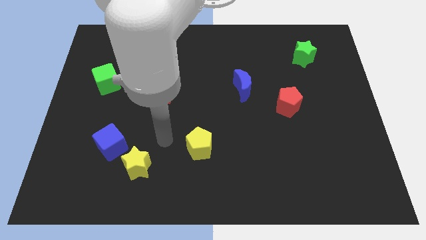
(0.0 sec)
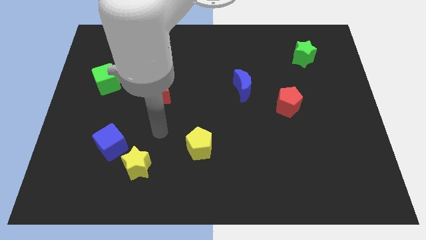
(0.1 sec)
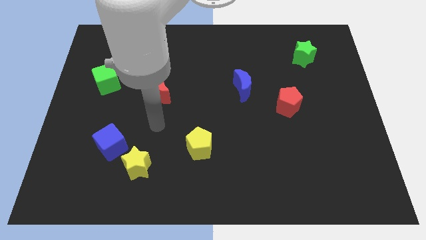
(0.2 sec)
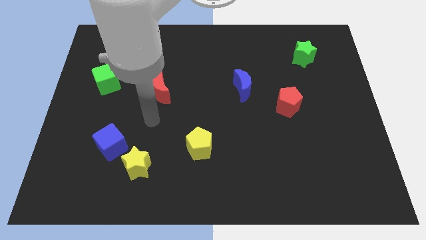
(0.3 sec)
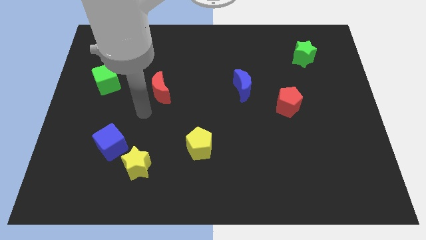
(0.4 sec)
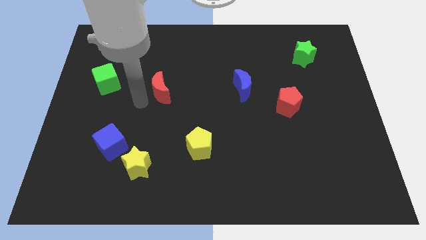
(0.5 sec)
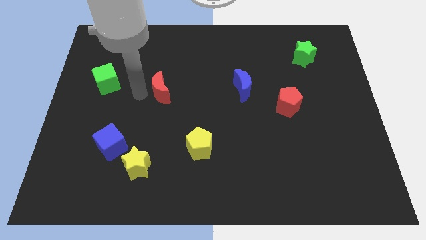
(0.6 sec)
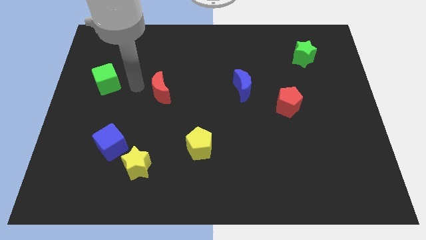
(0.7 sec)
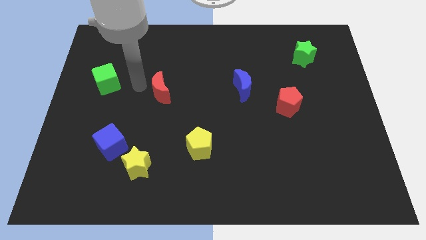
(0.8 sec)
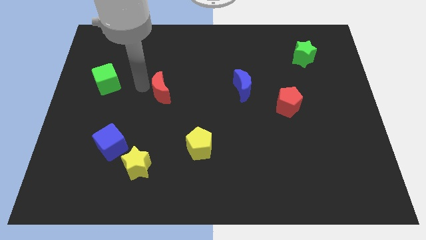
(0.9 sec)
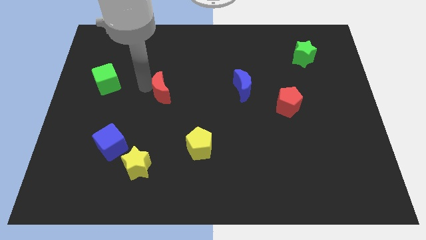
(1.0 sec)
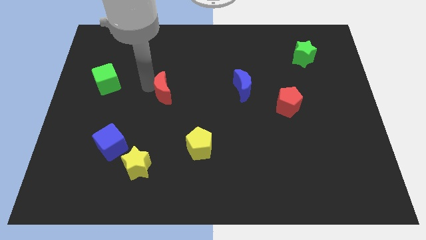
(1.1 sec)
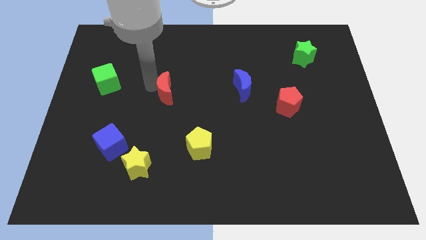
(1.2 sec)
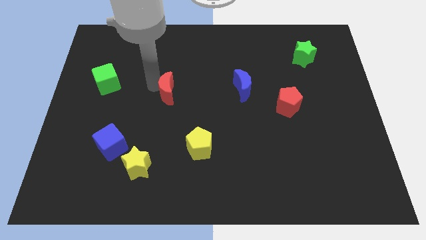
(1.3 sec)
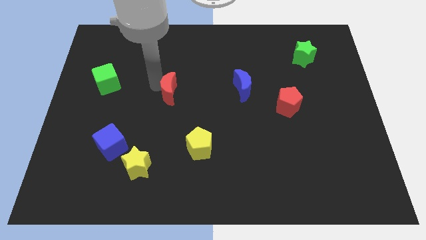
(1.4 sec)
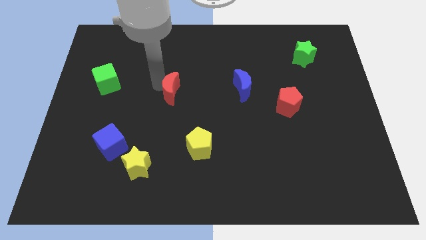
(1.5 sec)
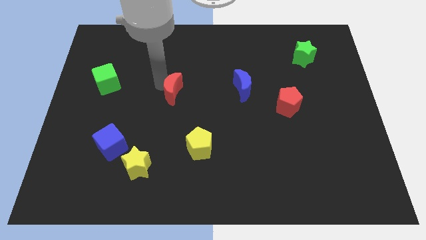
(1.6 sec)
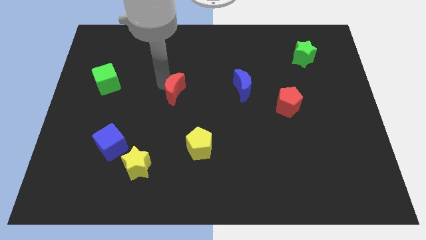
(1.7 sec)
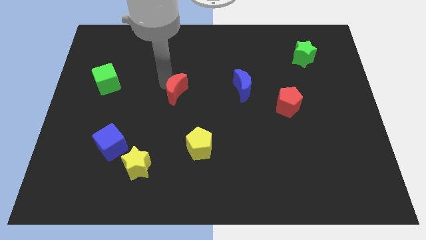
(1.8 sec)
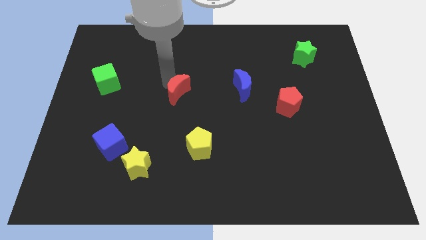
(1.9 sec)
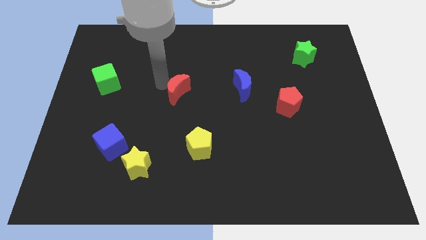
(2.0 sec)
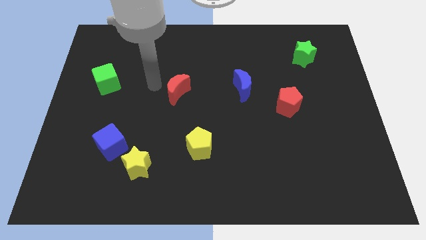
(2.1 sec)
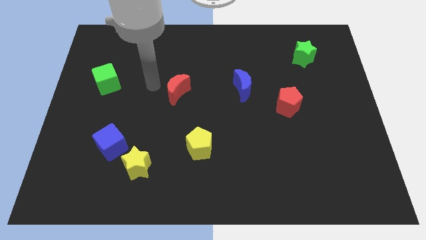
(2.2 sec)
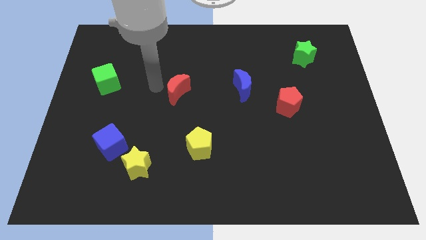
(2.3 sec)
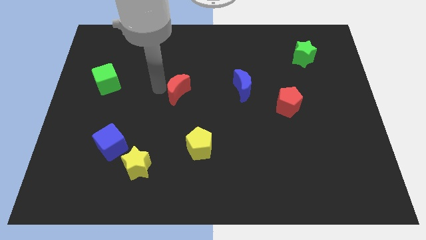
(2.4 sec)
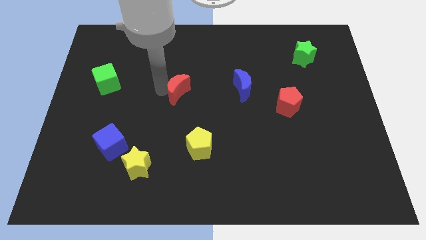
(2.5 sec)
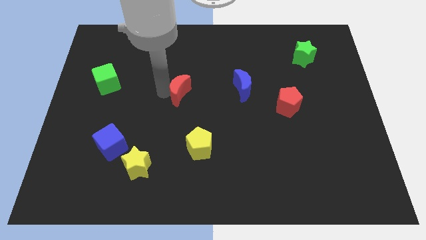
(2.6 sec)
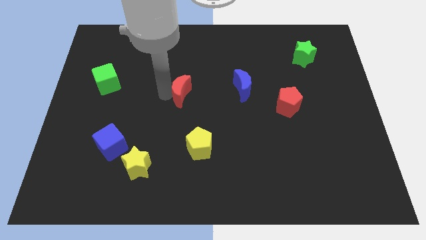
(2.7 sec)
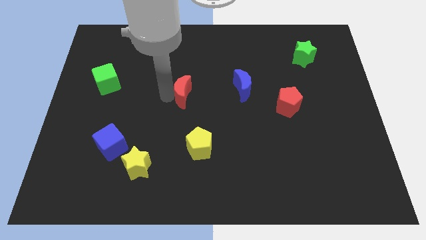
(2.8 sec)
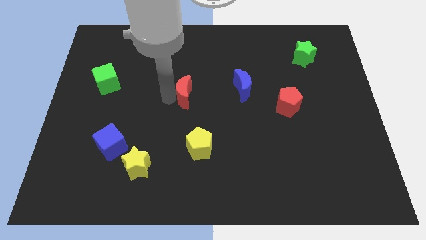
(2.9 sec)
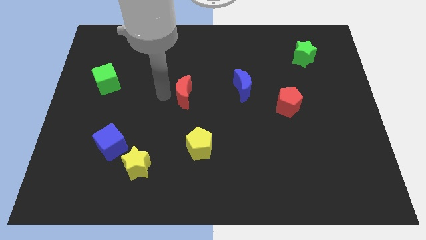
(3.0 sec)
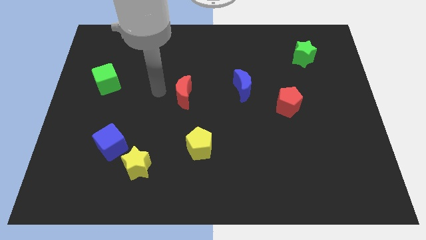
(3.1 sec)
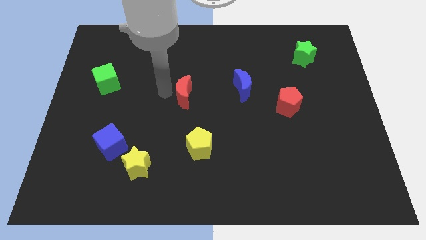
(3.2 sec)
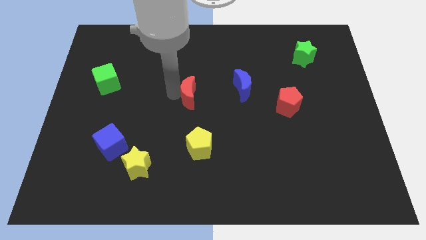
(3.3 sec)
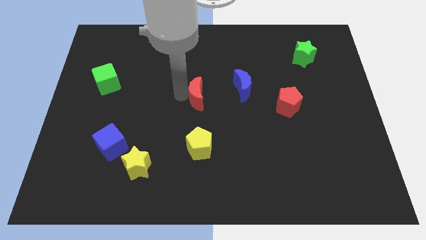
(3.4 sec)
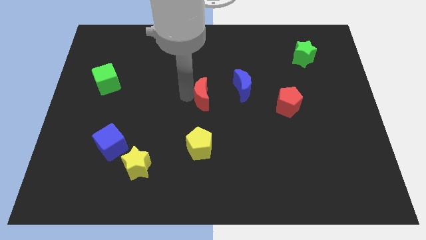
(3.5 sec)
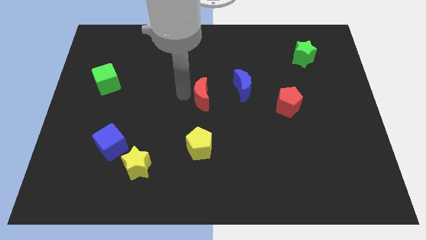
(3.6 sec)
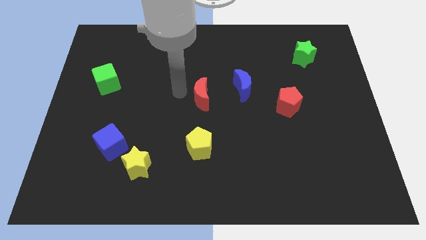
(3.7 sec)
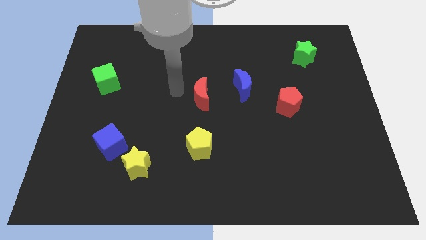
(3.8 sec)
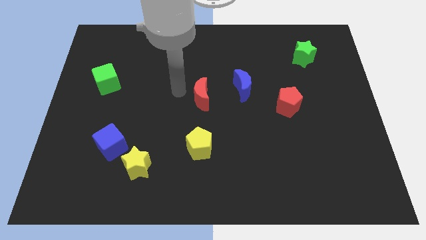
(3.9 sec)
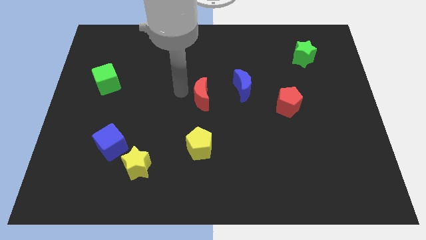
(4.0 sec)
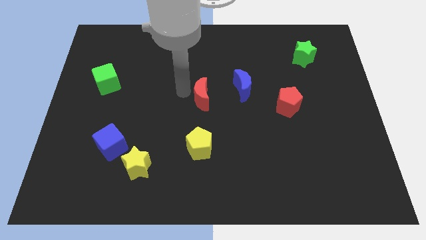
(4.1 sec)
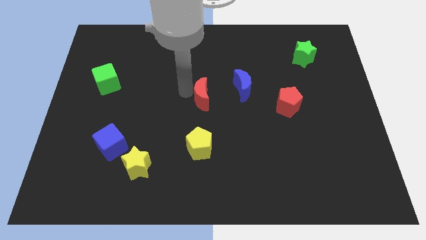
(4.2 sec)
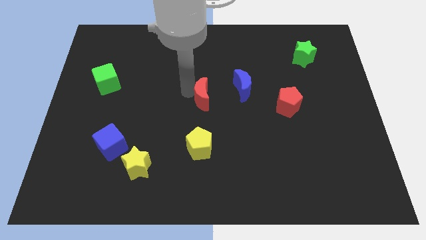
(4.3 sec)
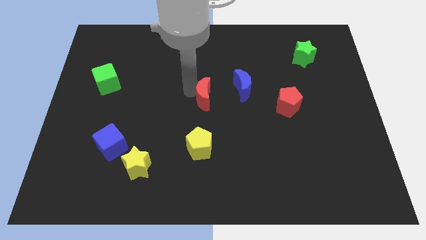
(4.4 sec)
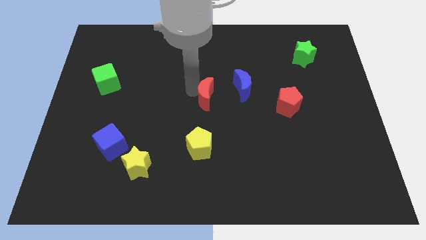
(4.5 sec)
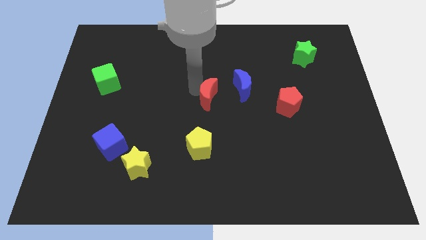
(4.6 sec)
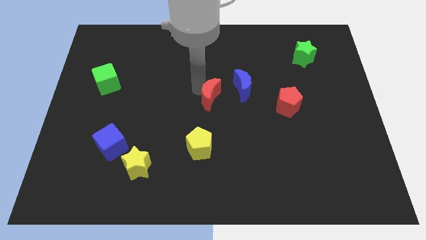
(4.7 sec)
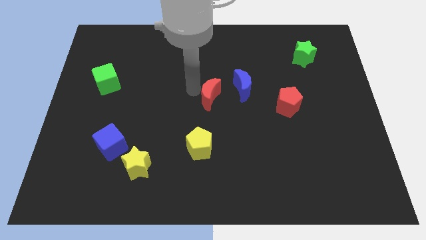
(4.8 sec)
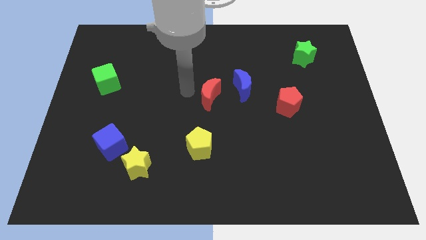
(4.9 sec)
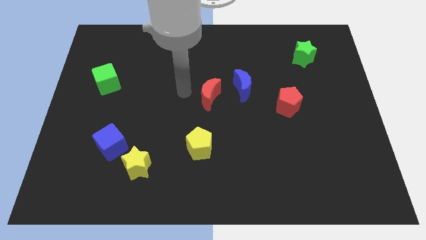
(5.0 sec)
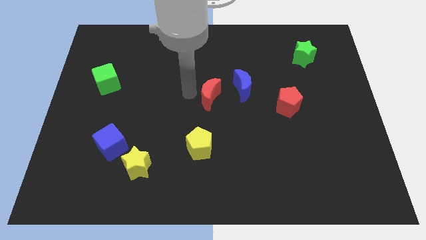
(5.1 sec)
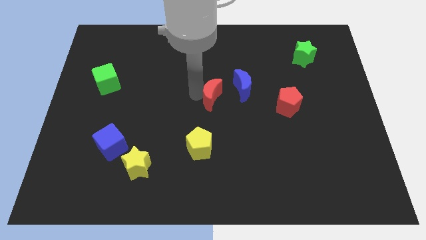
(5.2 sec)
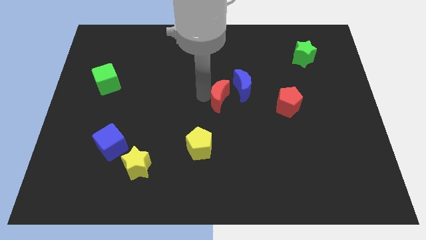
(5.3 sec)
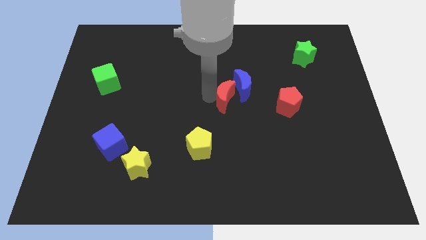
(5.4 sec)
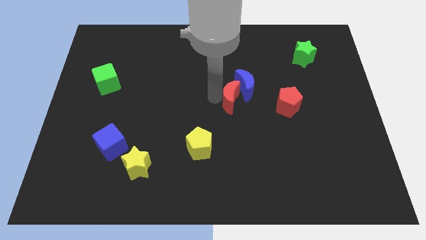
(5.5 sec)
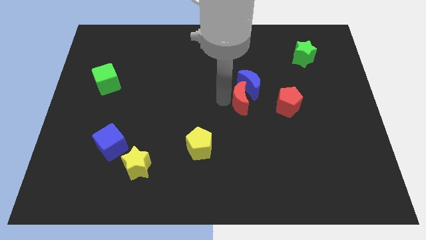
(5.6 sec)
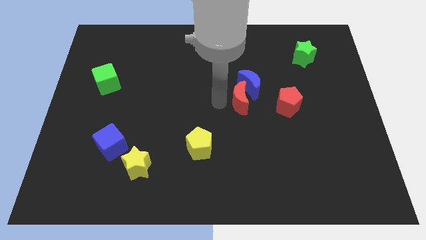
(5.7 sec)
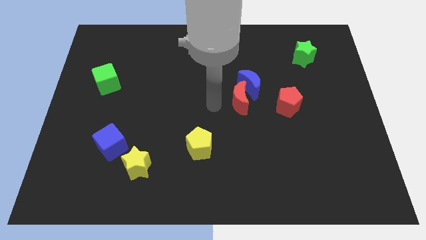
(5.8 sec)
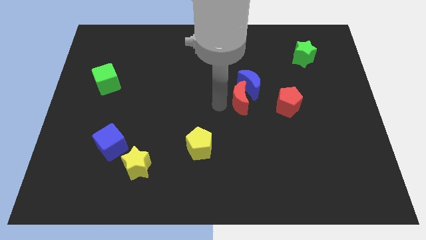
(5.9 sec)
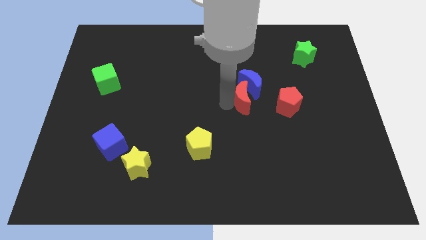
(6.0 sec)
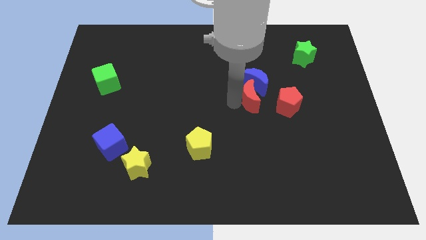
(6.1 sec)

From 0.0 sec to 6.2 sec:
push the red moon right

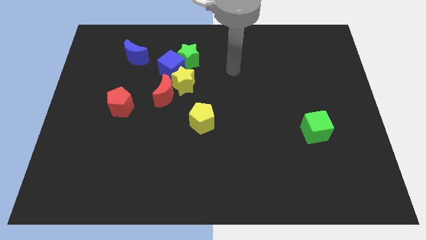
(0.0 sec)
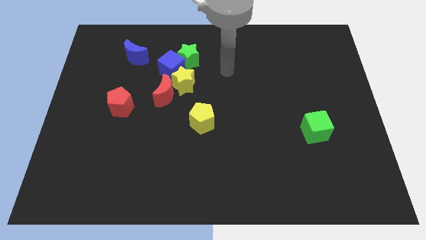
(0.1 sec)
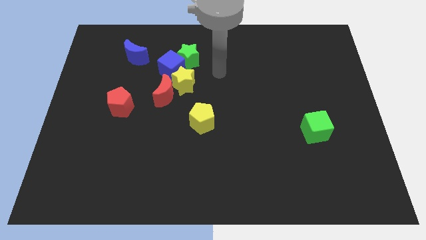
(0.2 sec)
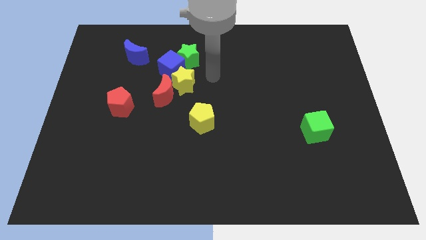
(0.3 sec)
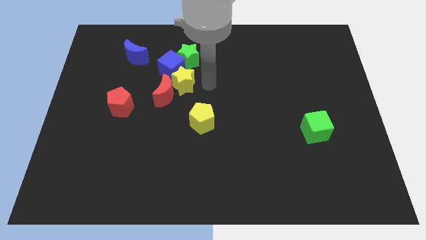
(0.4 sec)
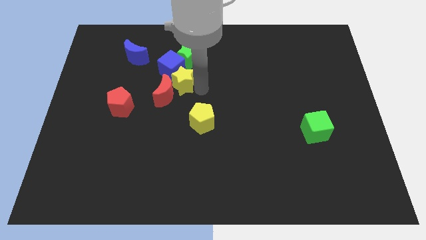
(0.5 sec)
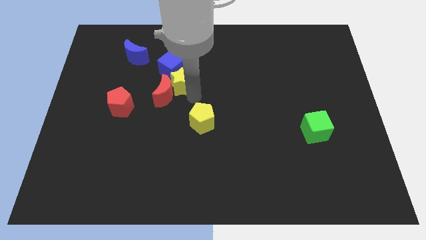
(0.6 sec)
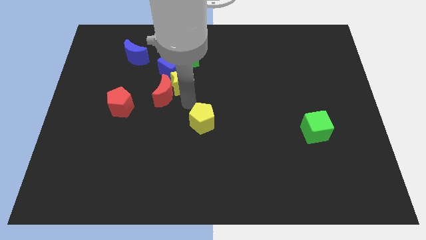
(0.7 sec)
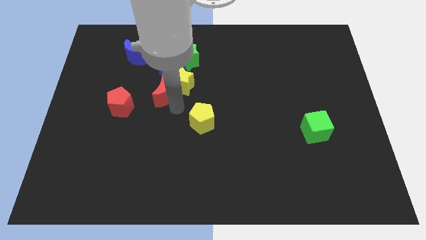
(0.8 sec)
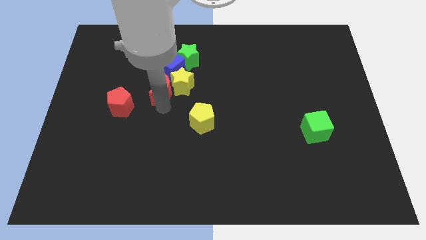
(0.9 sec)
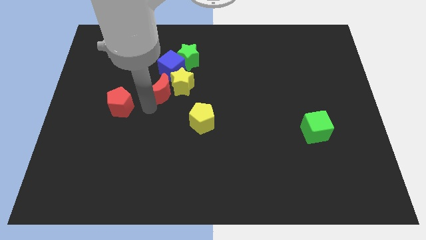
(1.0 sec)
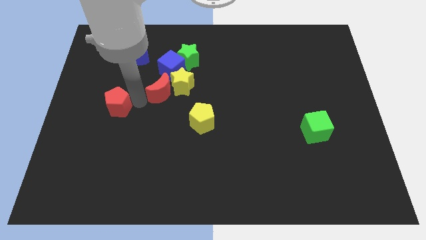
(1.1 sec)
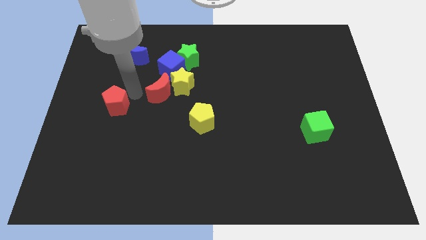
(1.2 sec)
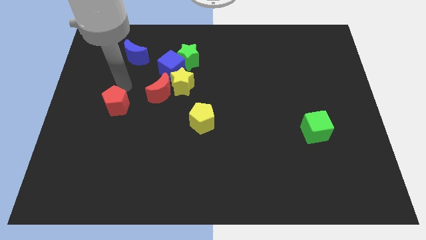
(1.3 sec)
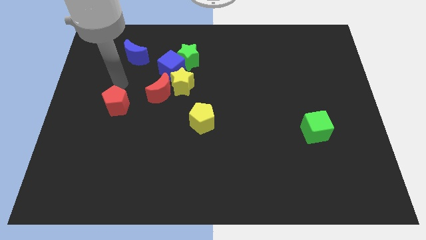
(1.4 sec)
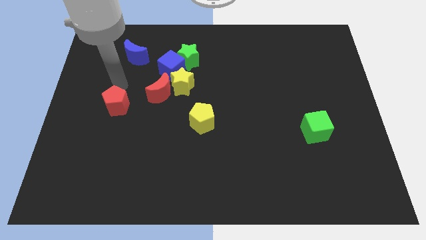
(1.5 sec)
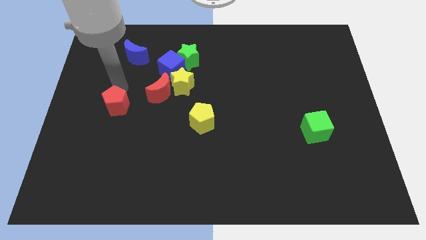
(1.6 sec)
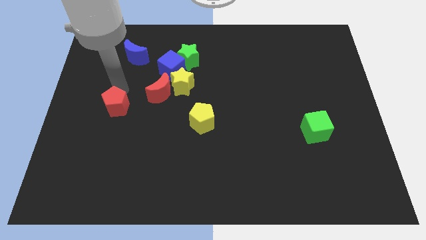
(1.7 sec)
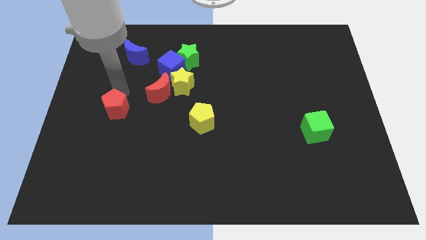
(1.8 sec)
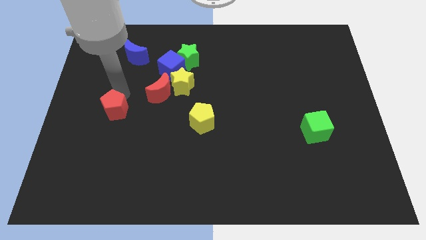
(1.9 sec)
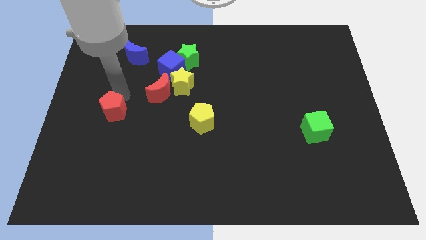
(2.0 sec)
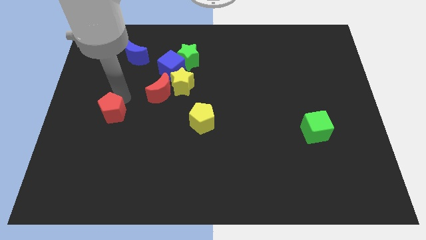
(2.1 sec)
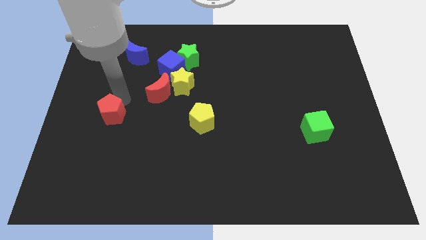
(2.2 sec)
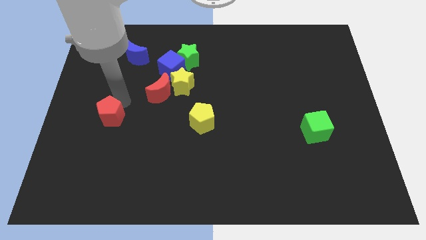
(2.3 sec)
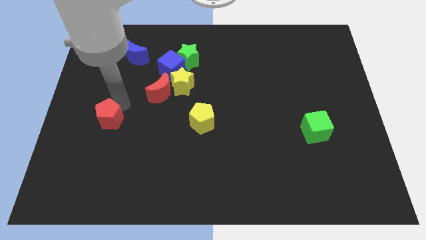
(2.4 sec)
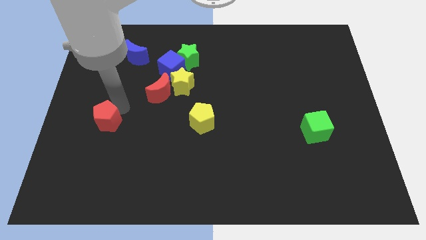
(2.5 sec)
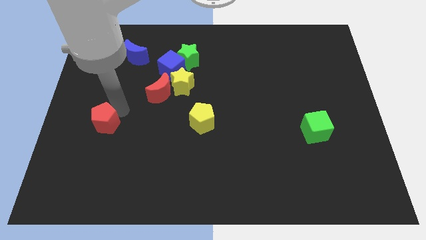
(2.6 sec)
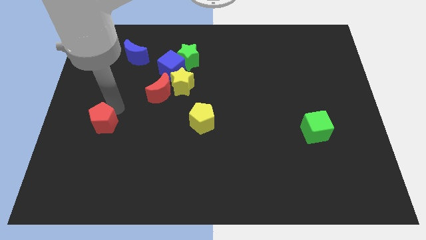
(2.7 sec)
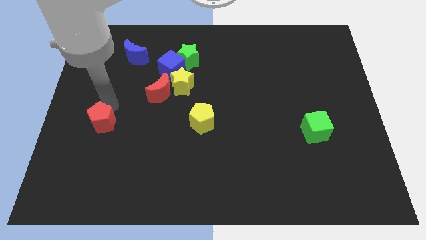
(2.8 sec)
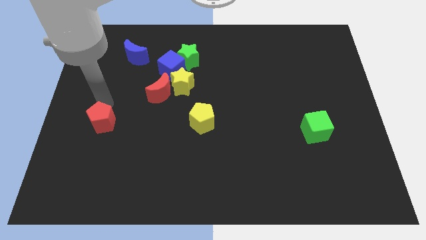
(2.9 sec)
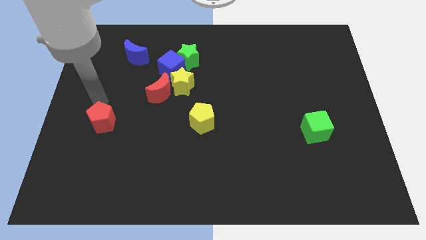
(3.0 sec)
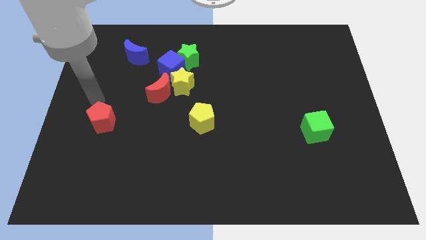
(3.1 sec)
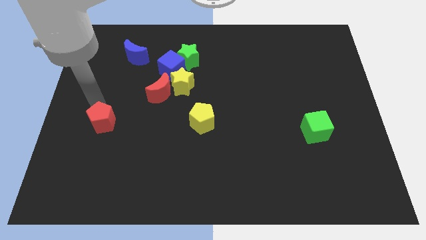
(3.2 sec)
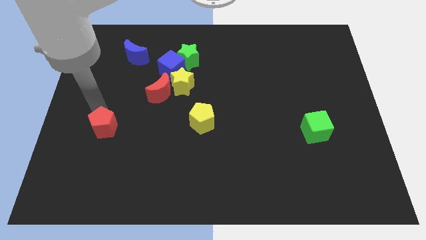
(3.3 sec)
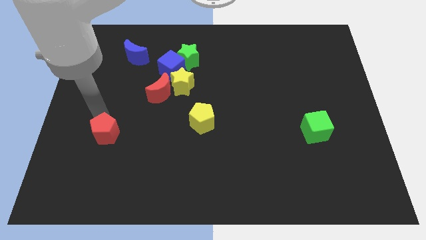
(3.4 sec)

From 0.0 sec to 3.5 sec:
move the red pentagon down a little bit
